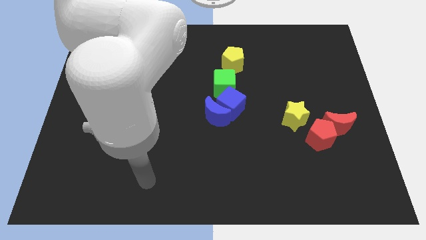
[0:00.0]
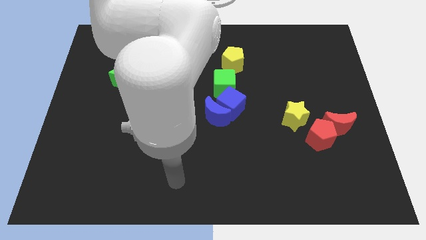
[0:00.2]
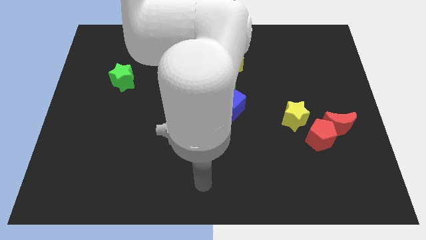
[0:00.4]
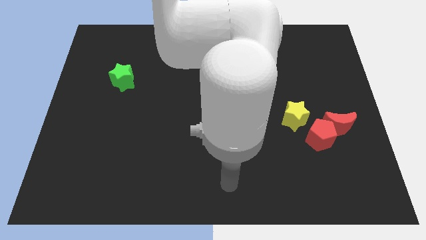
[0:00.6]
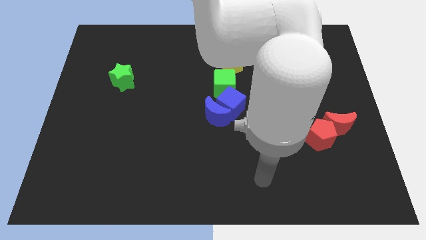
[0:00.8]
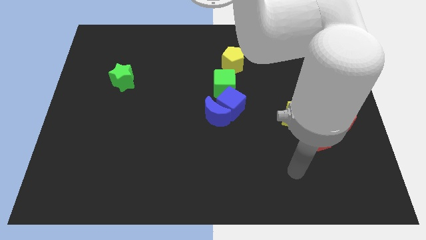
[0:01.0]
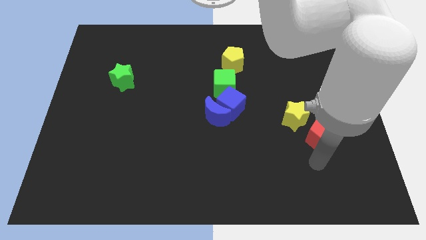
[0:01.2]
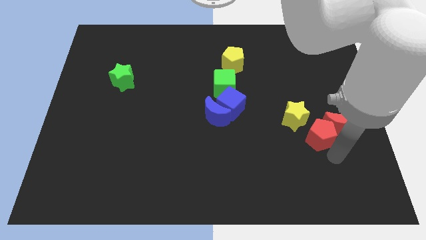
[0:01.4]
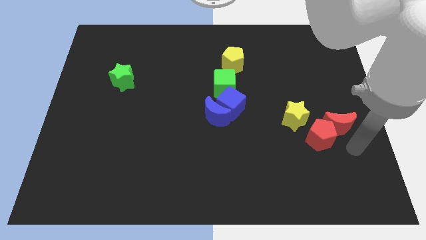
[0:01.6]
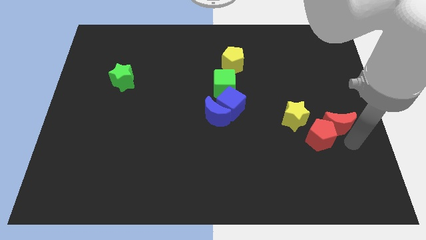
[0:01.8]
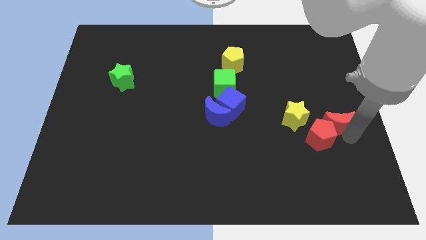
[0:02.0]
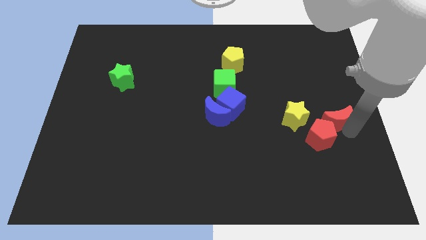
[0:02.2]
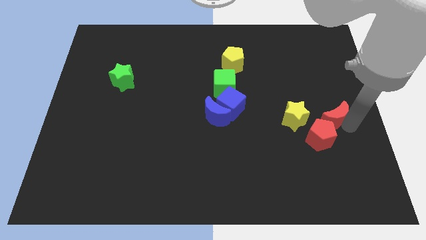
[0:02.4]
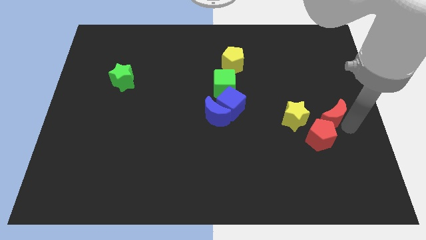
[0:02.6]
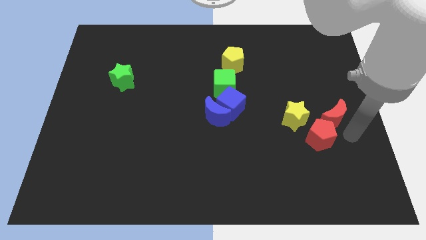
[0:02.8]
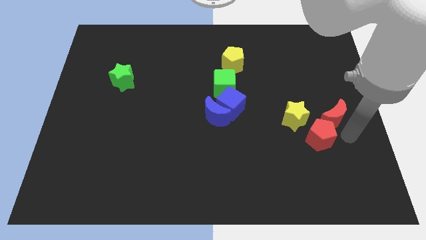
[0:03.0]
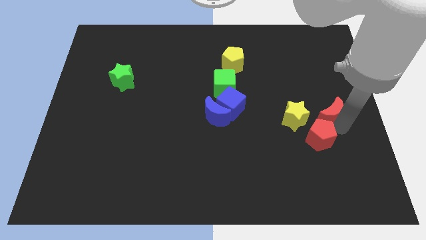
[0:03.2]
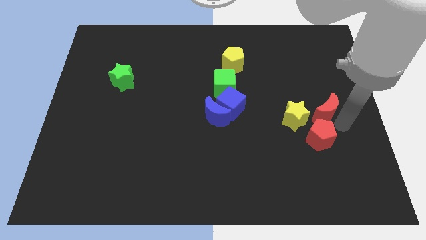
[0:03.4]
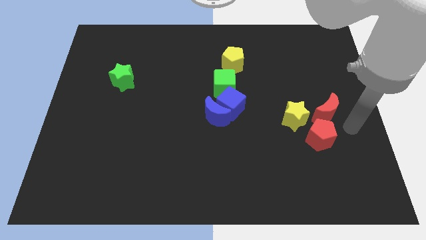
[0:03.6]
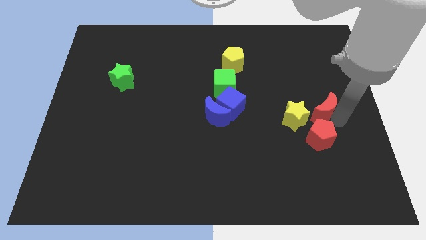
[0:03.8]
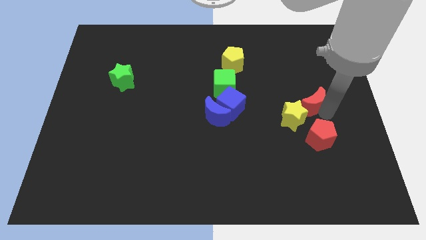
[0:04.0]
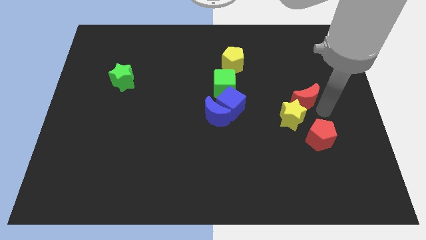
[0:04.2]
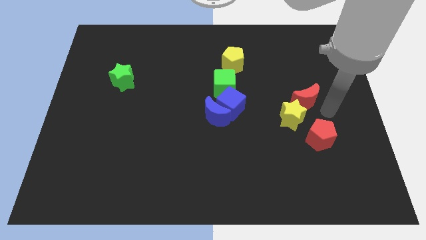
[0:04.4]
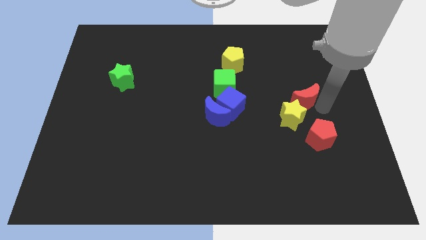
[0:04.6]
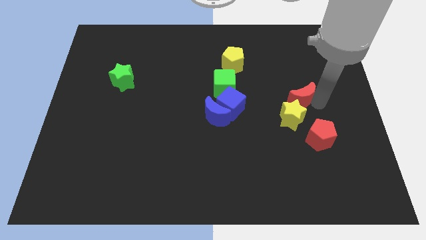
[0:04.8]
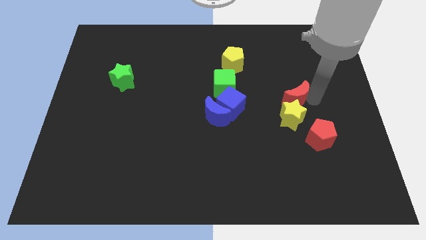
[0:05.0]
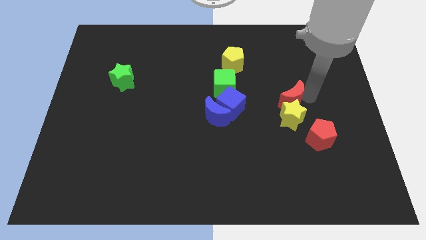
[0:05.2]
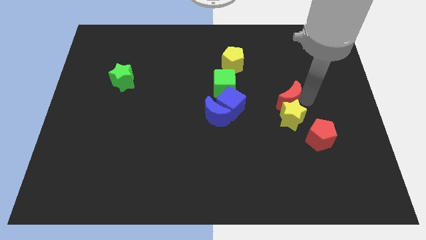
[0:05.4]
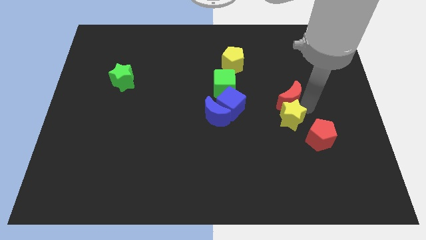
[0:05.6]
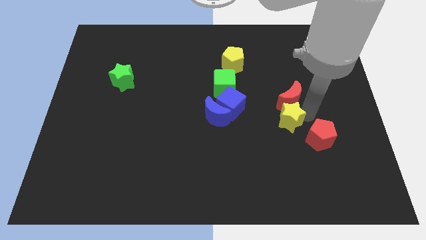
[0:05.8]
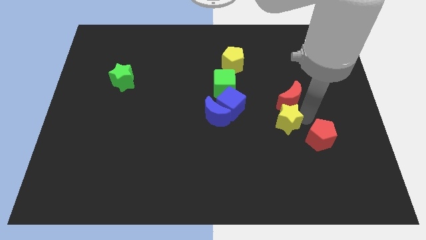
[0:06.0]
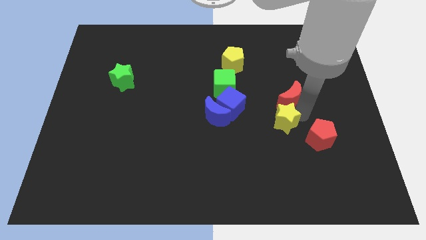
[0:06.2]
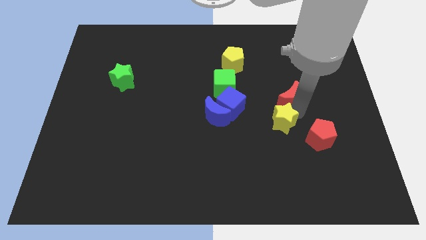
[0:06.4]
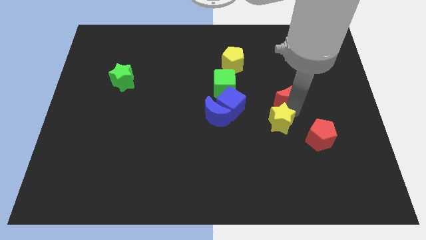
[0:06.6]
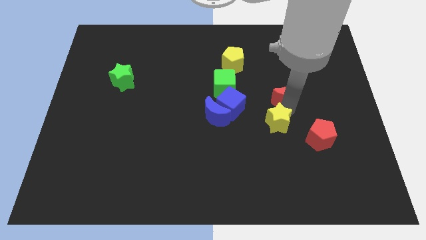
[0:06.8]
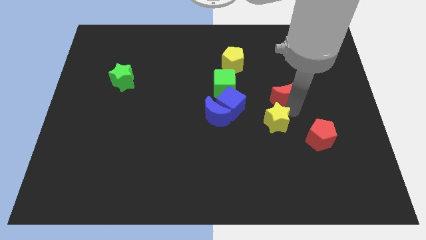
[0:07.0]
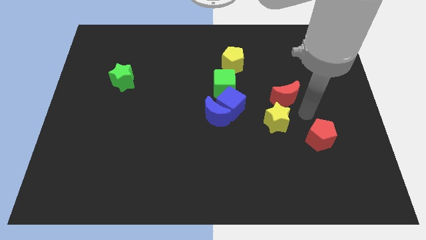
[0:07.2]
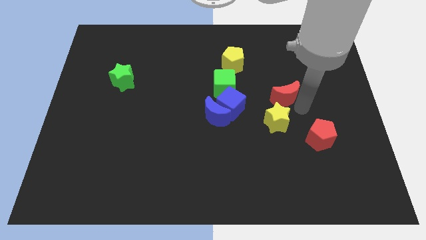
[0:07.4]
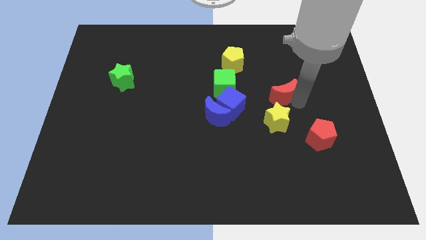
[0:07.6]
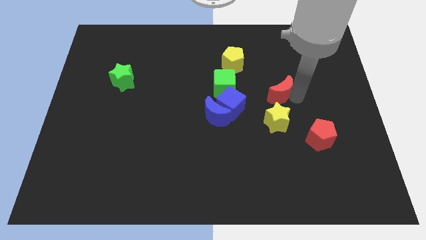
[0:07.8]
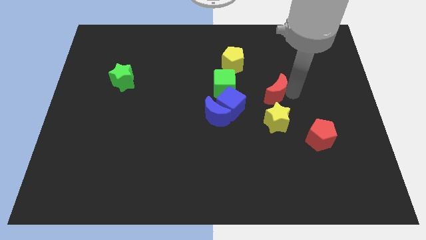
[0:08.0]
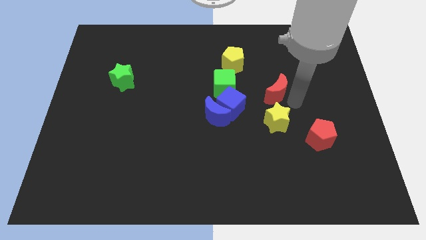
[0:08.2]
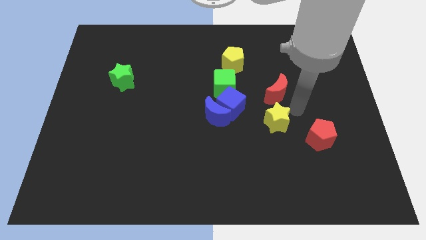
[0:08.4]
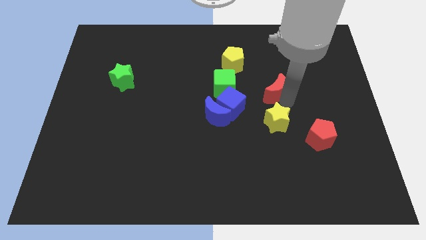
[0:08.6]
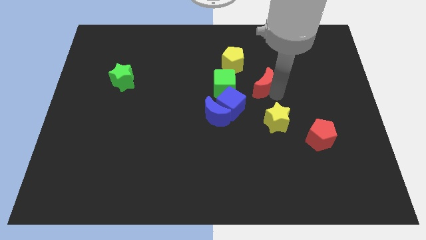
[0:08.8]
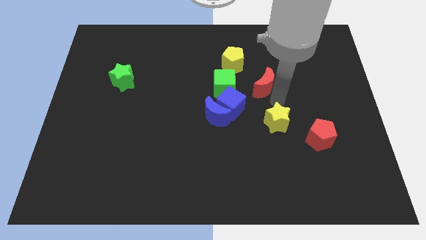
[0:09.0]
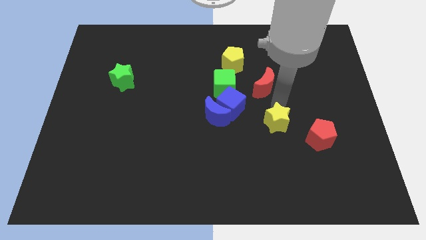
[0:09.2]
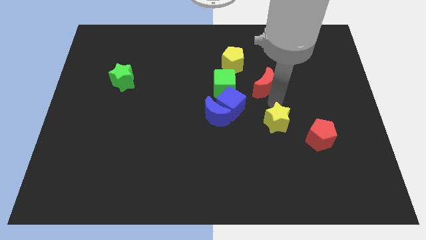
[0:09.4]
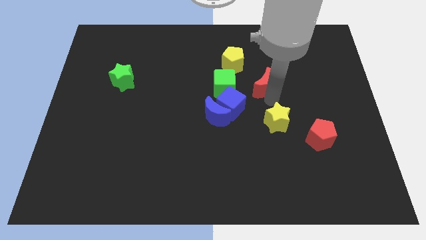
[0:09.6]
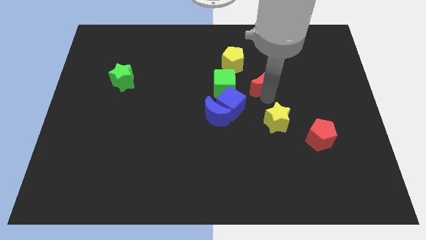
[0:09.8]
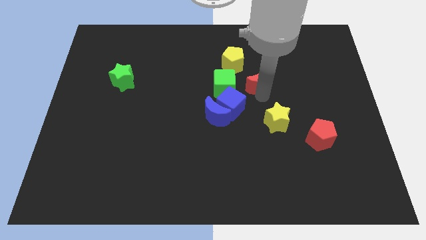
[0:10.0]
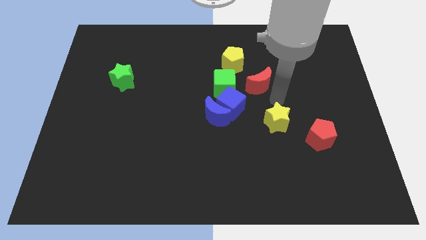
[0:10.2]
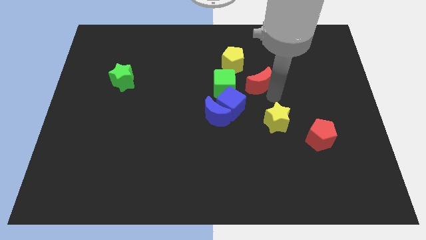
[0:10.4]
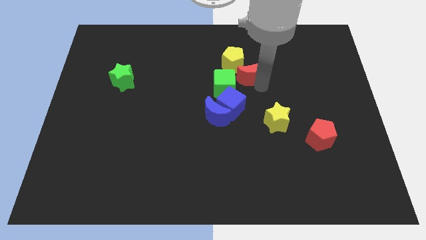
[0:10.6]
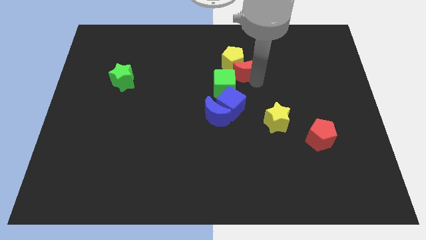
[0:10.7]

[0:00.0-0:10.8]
push the red moon to the yellow pentagon

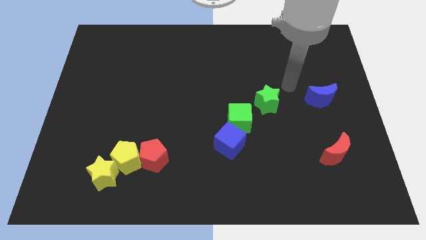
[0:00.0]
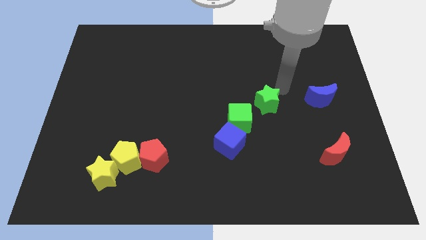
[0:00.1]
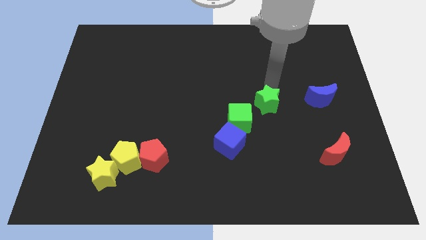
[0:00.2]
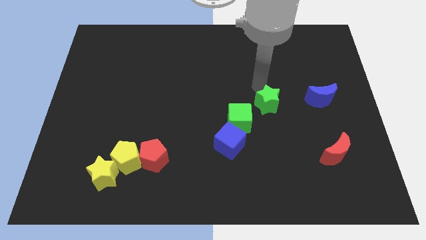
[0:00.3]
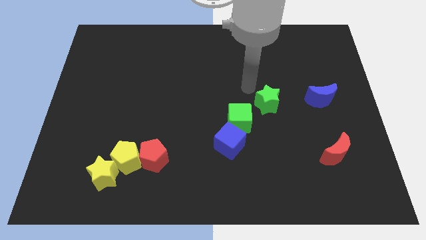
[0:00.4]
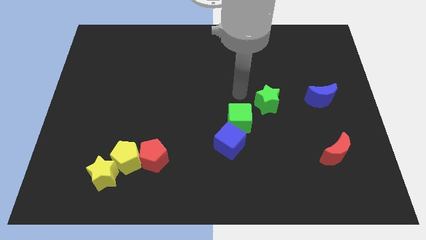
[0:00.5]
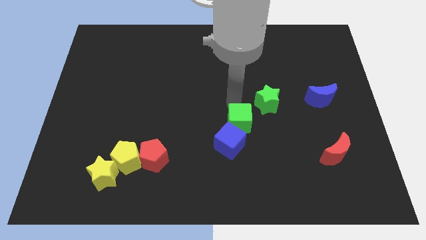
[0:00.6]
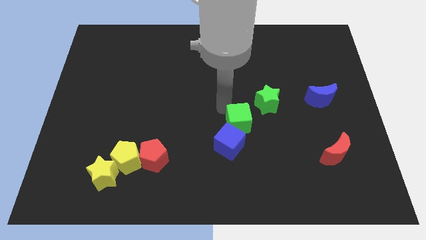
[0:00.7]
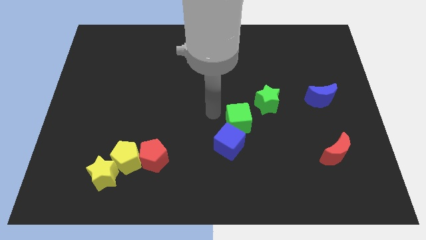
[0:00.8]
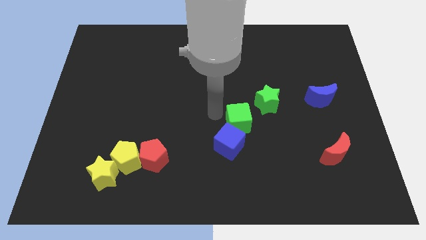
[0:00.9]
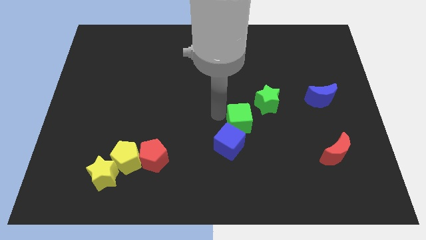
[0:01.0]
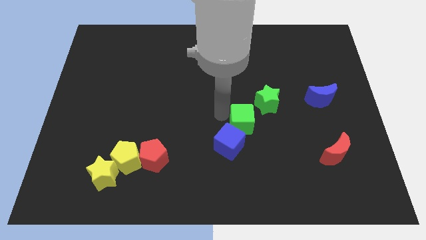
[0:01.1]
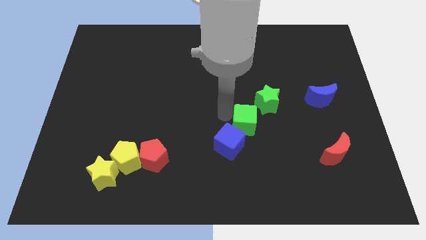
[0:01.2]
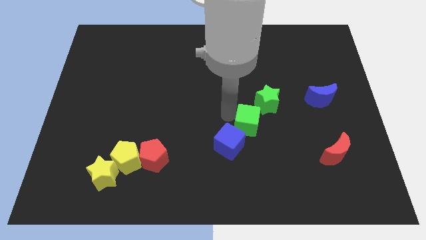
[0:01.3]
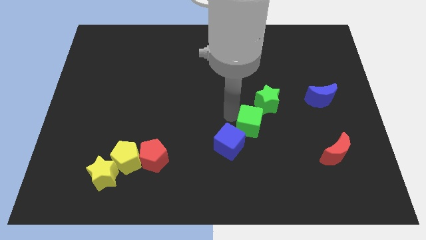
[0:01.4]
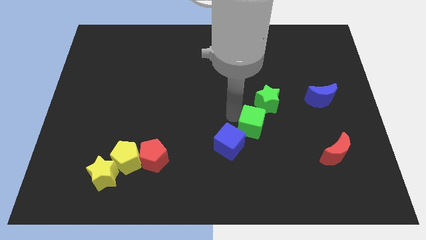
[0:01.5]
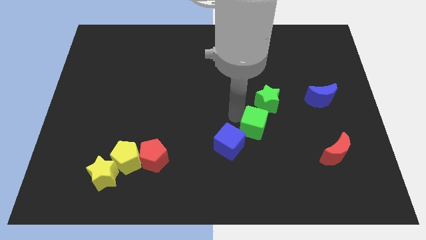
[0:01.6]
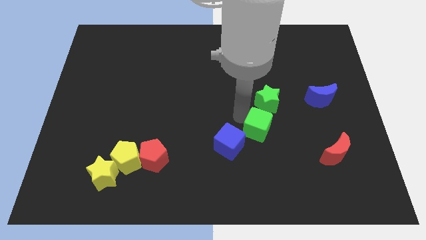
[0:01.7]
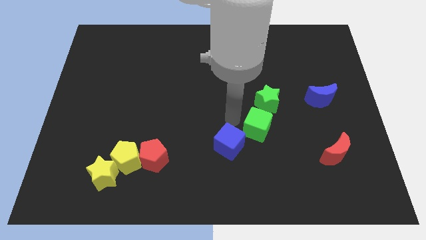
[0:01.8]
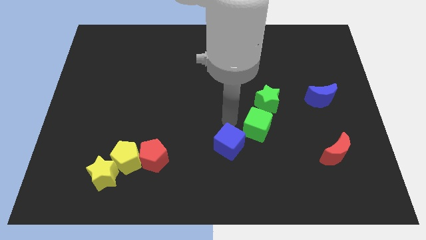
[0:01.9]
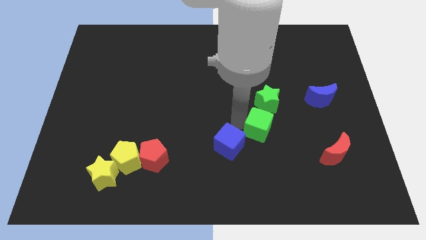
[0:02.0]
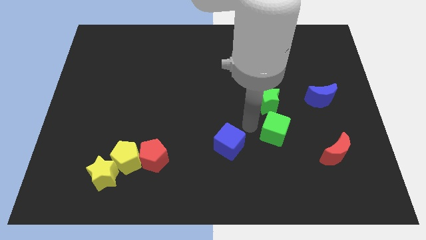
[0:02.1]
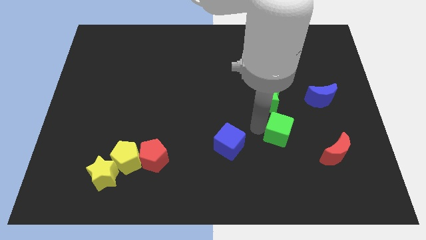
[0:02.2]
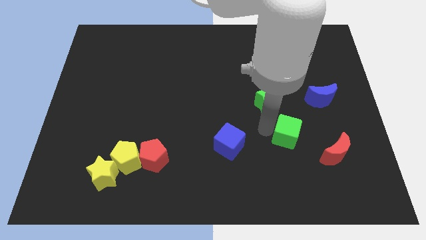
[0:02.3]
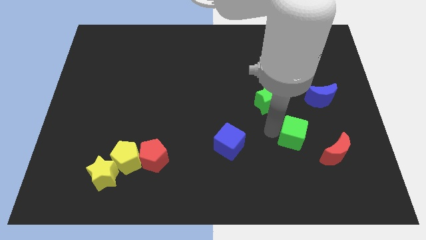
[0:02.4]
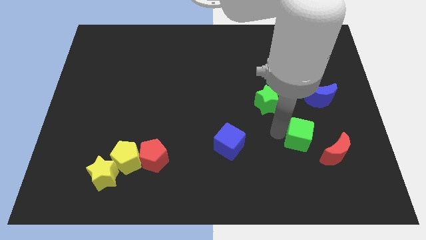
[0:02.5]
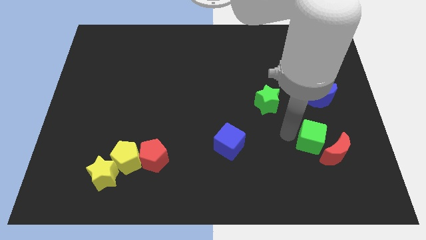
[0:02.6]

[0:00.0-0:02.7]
put the green cube close to the red moon
